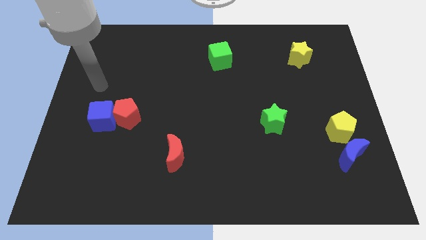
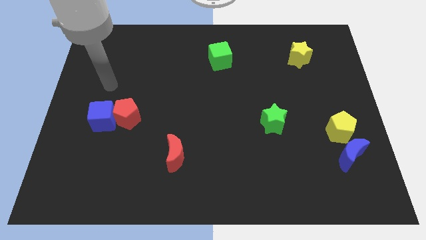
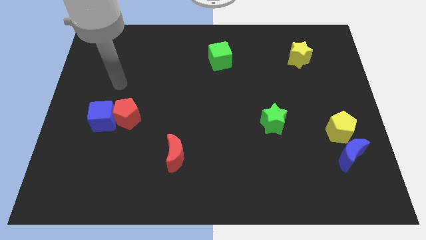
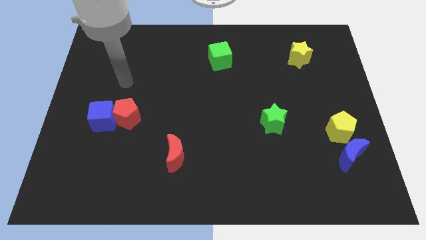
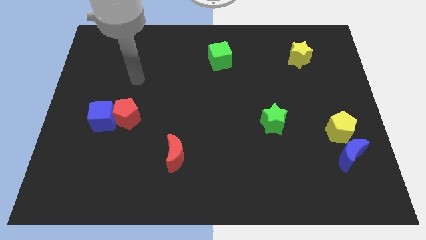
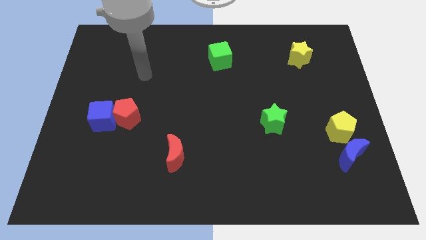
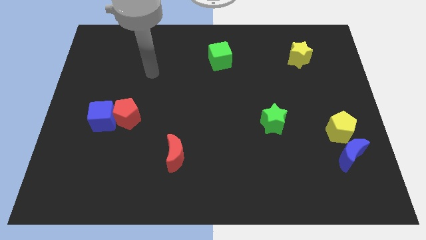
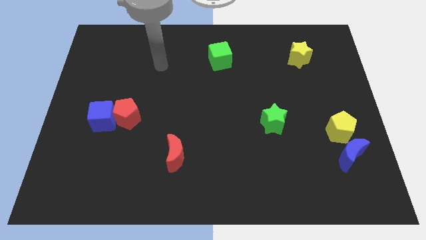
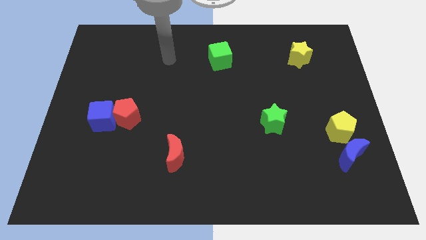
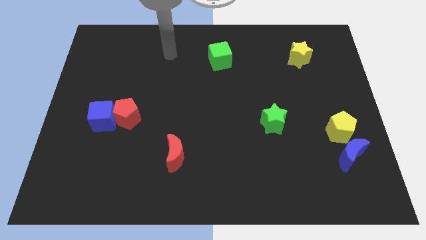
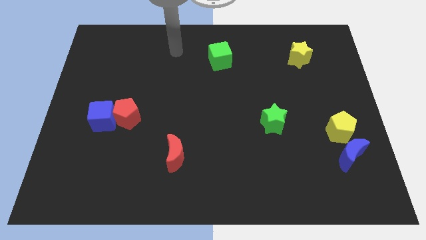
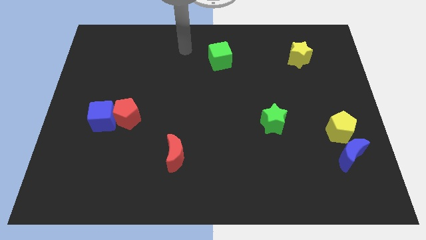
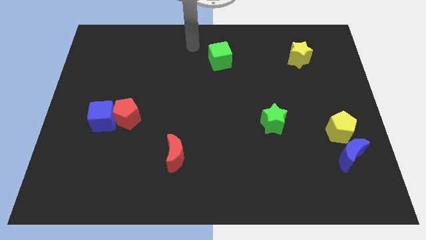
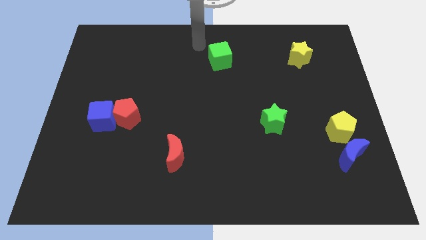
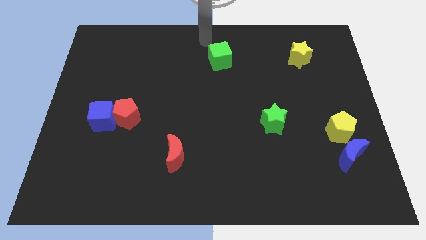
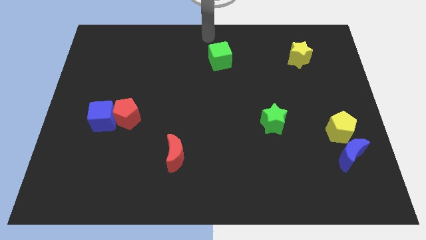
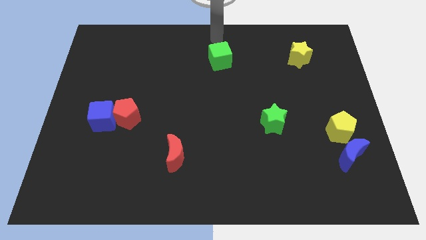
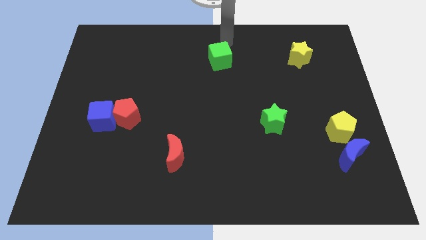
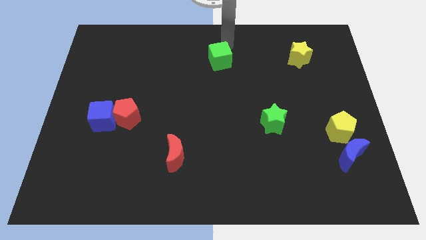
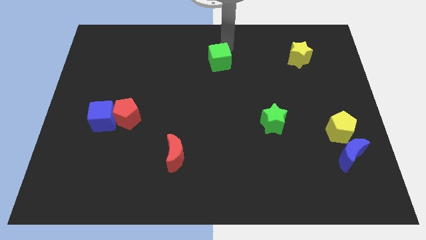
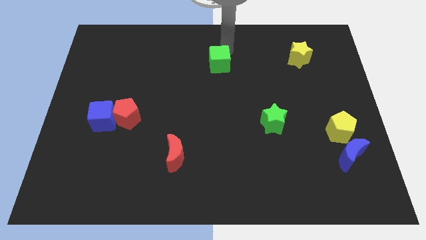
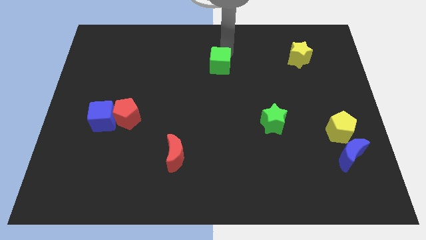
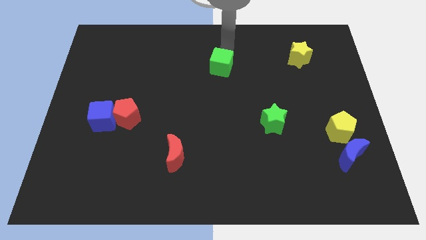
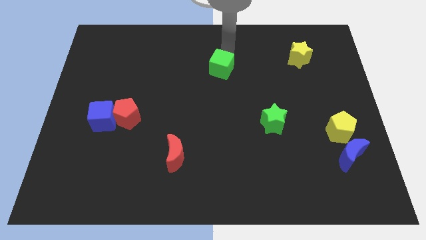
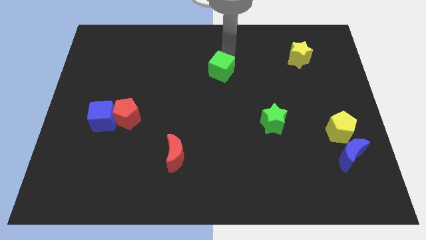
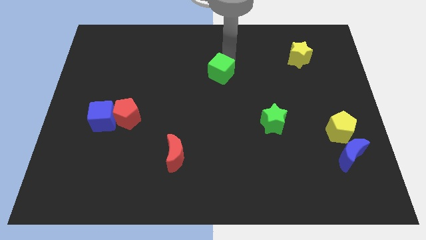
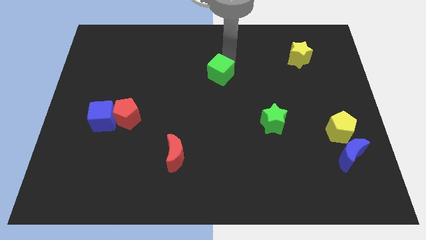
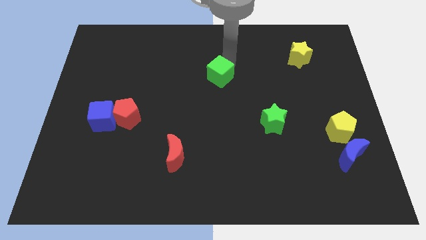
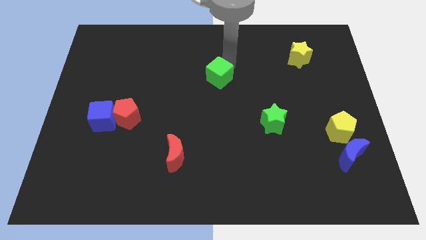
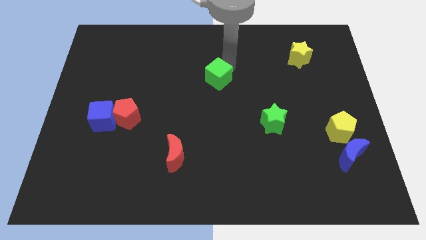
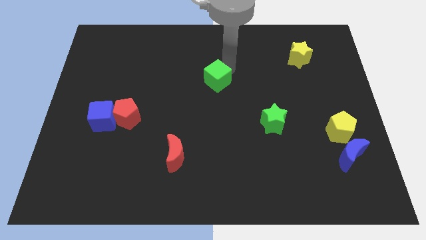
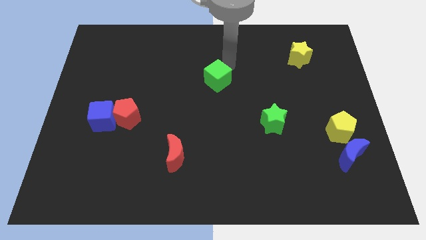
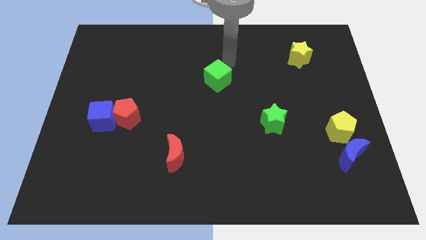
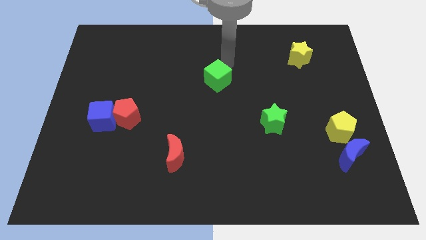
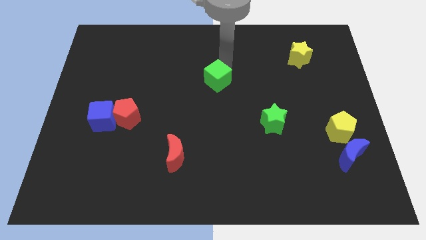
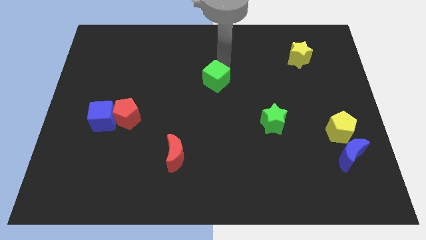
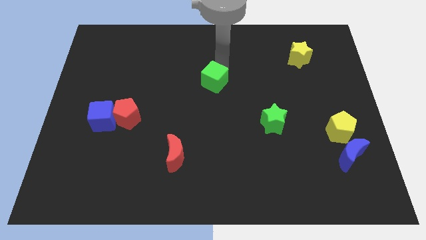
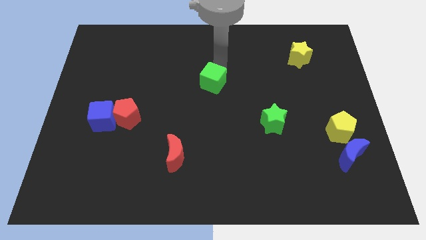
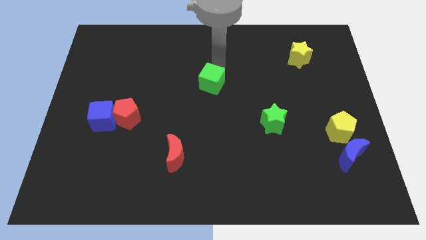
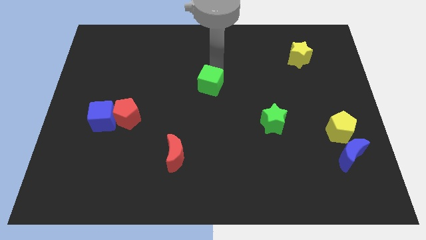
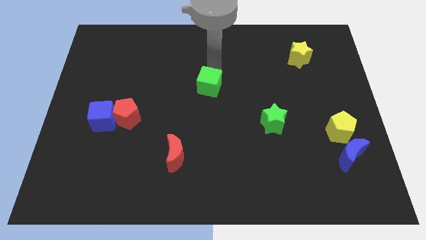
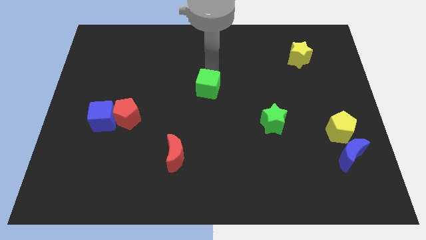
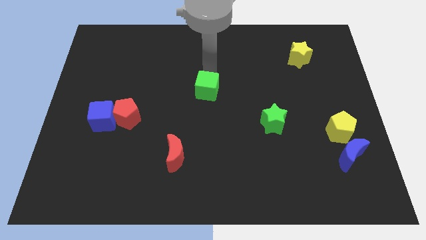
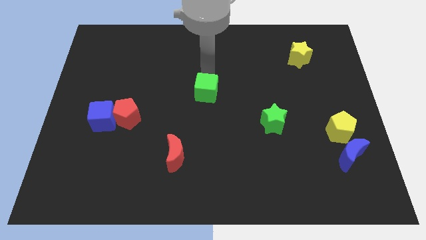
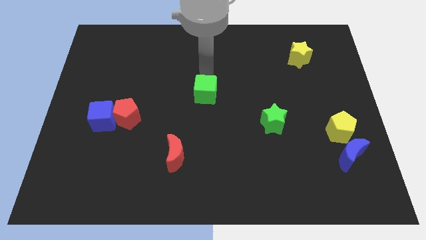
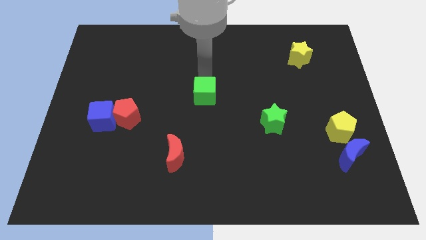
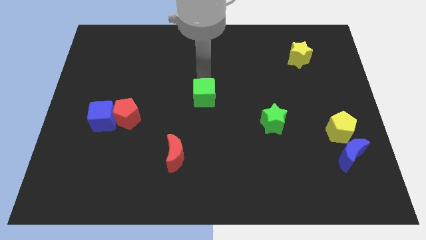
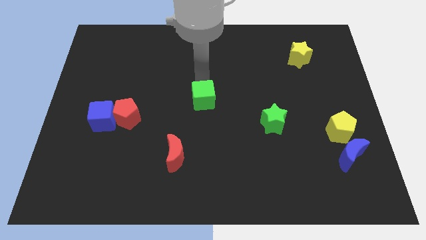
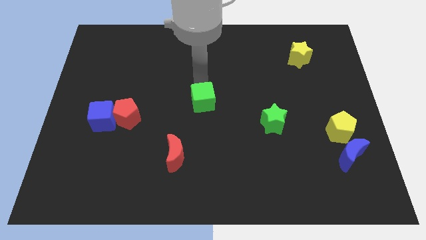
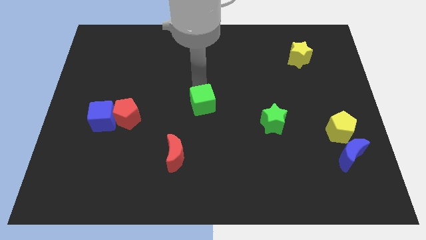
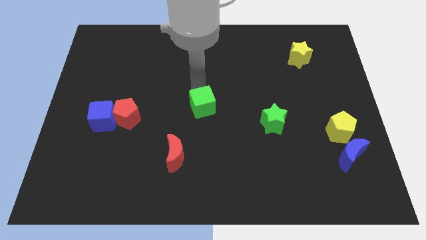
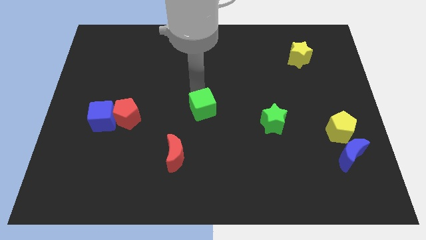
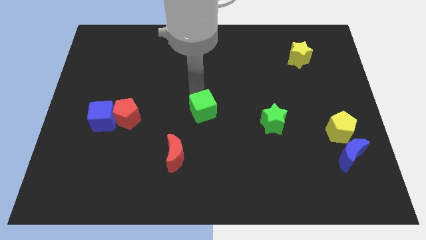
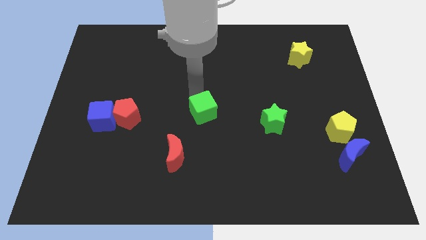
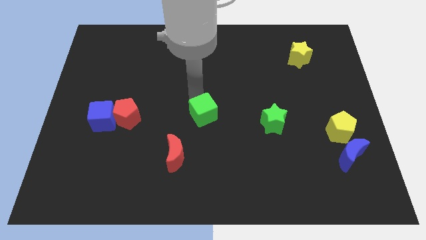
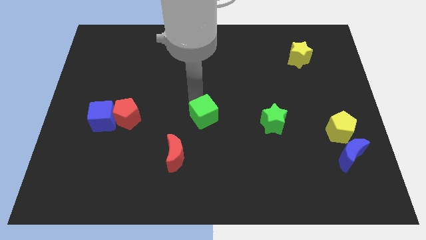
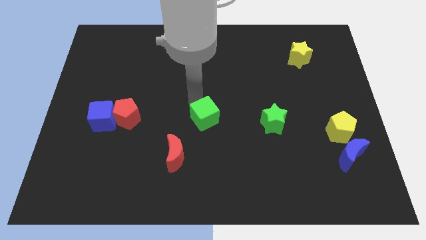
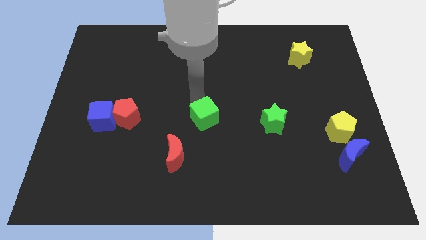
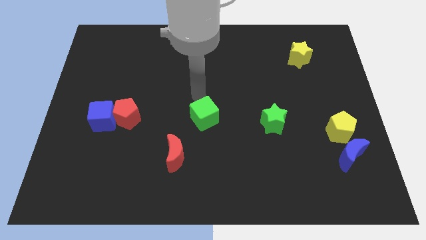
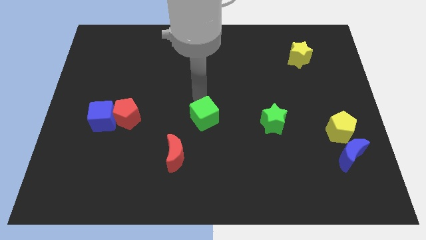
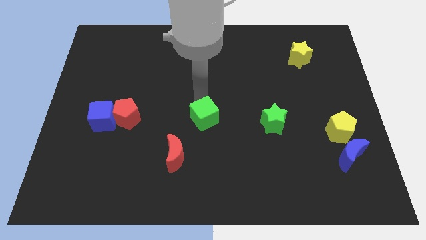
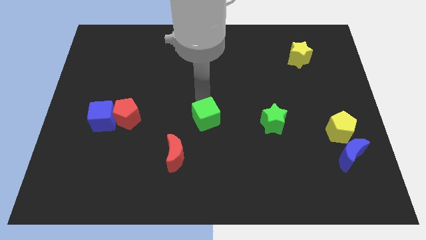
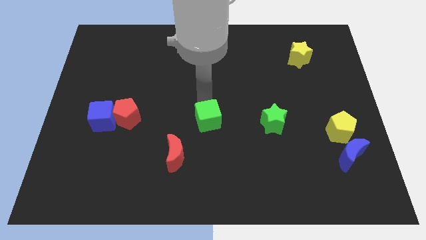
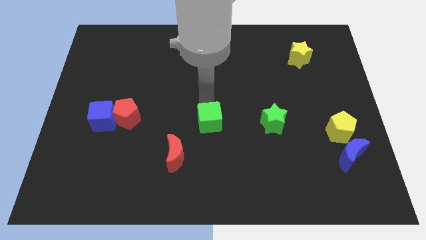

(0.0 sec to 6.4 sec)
move the green cube downwards

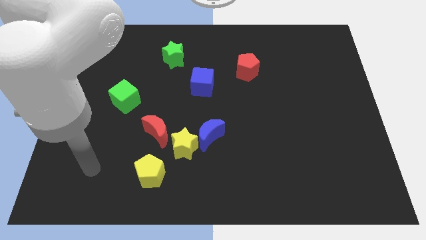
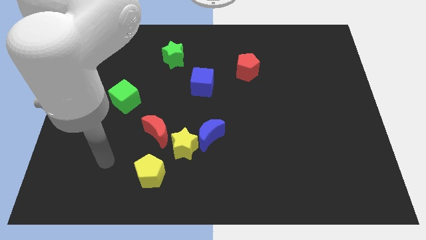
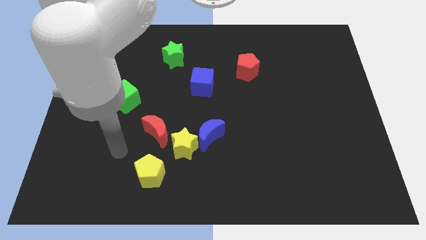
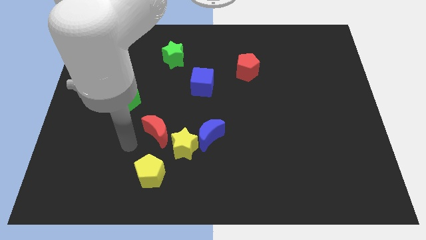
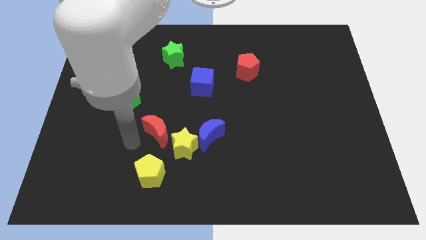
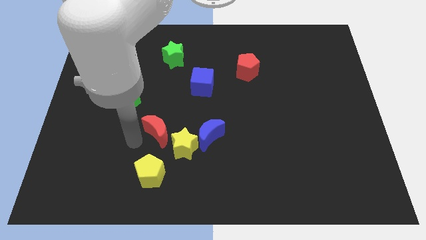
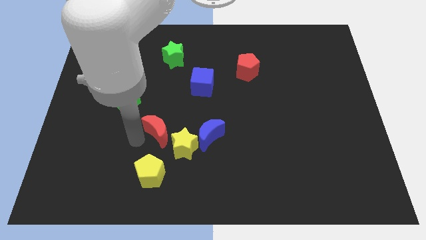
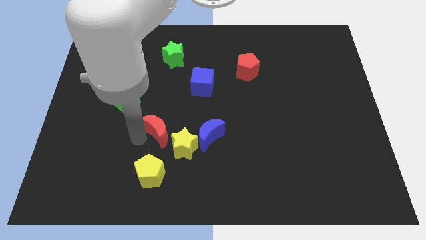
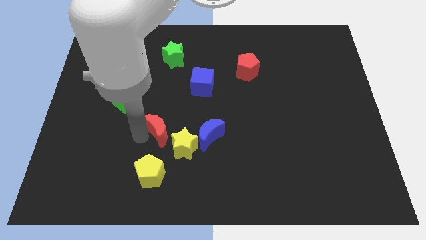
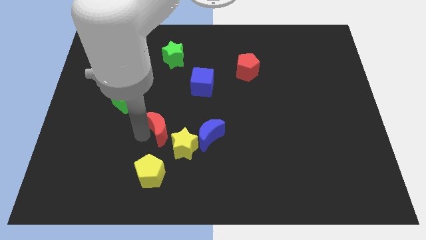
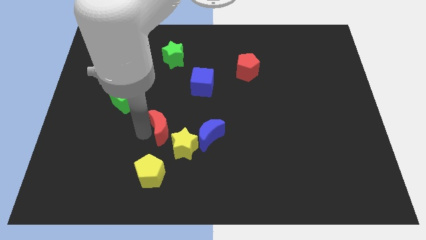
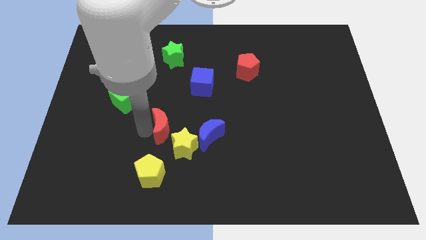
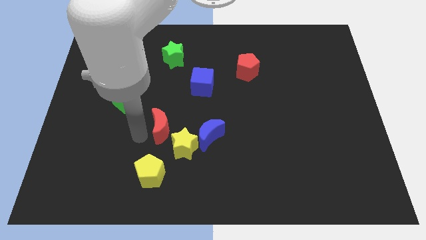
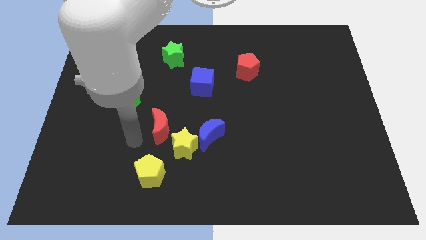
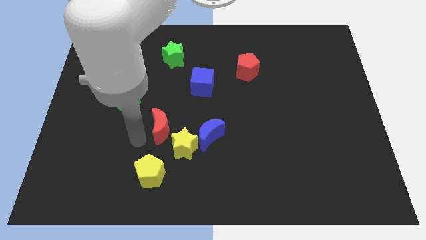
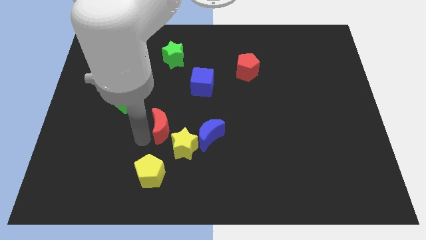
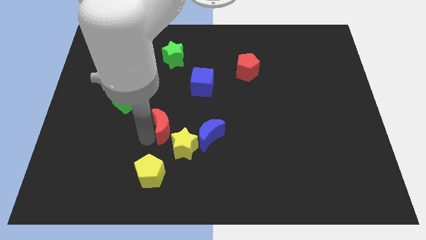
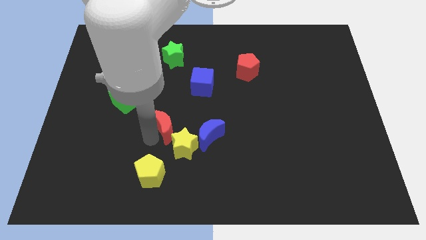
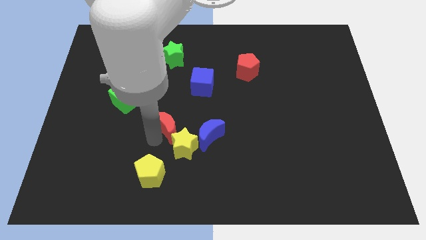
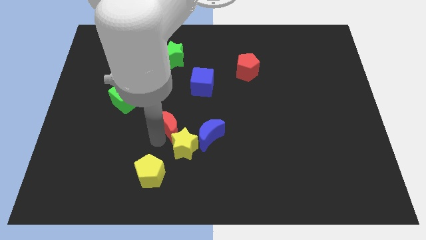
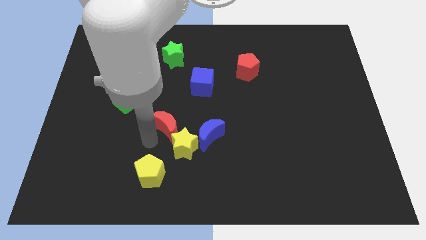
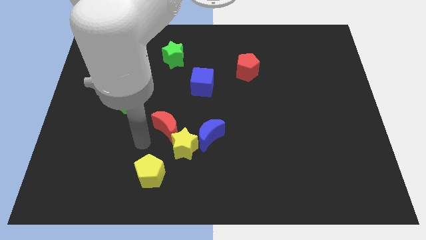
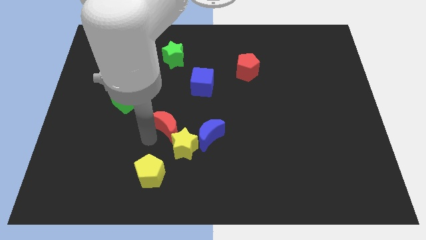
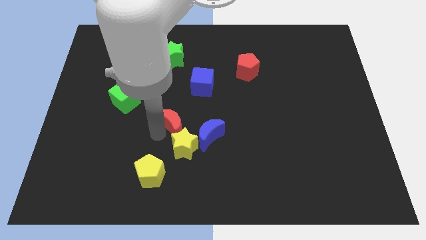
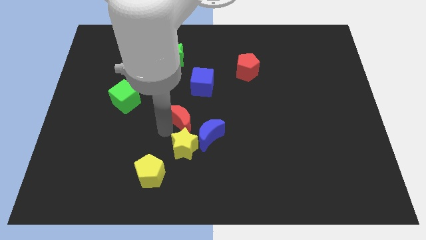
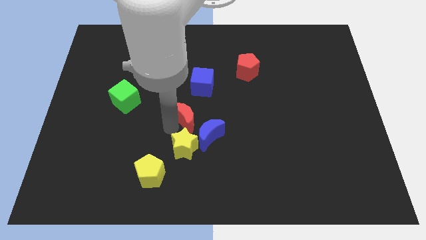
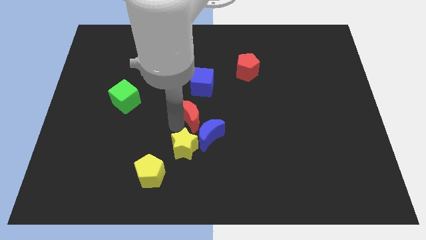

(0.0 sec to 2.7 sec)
move the red moon somewhat up and then right
